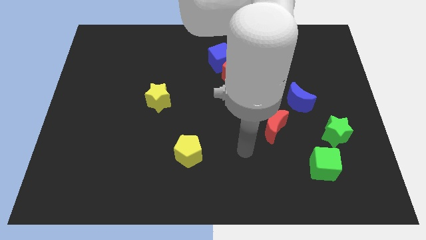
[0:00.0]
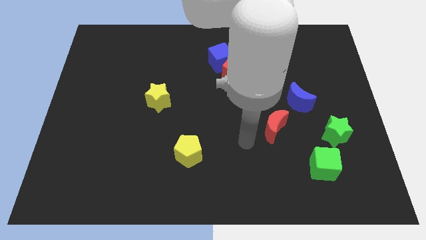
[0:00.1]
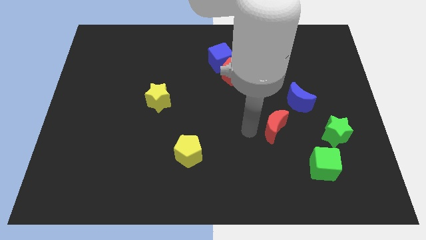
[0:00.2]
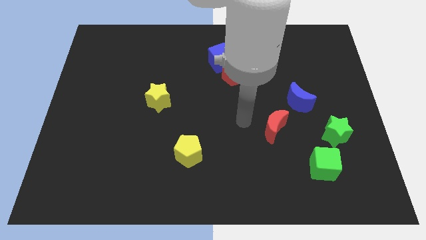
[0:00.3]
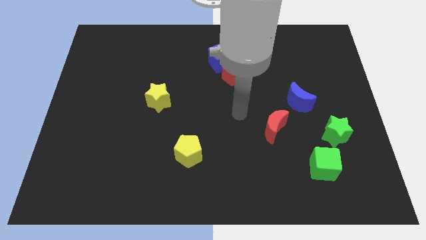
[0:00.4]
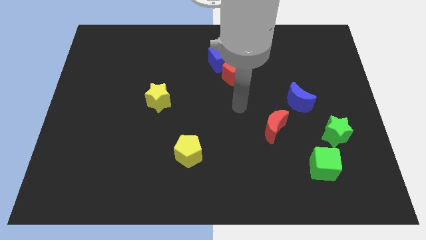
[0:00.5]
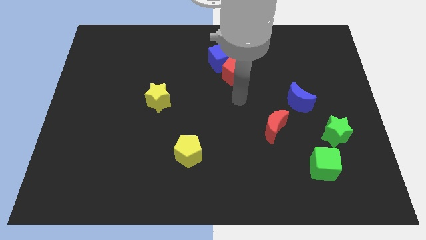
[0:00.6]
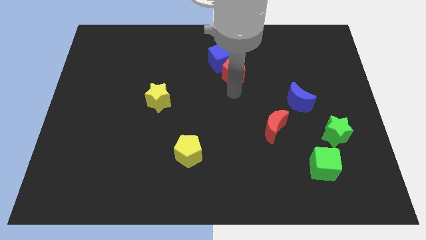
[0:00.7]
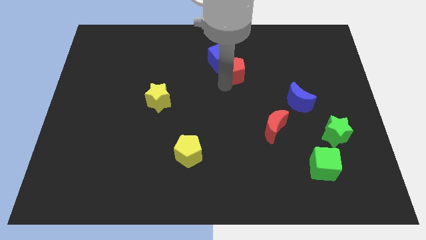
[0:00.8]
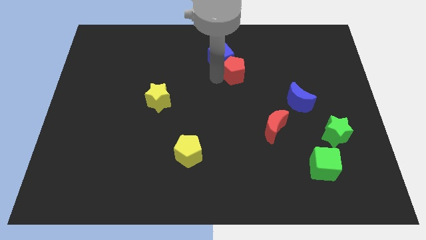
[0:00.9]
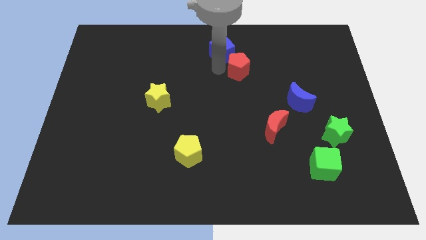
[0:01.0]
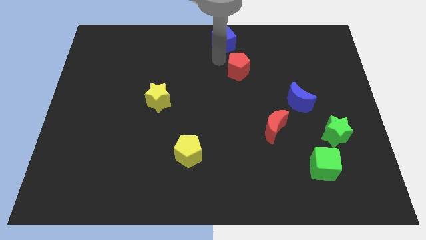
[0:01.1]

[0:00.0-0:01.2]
move the red pentagon away from the blue cube

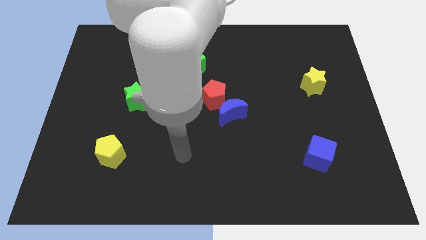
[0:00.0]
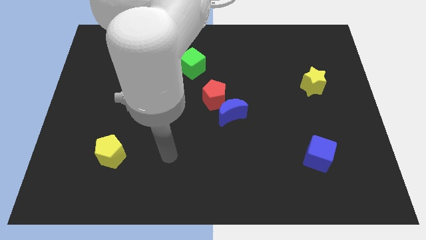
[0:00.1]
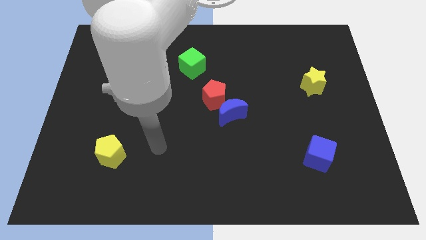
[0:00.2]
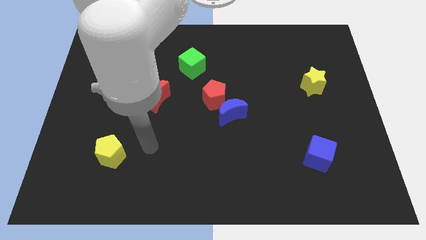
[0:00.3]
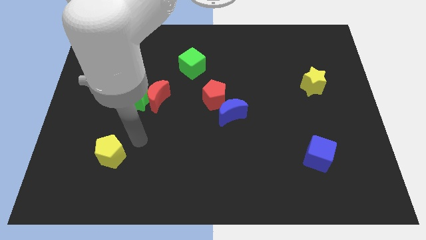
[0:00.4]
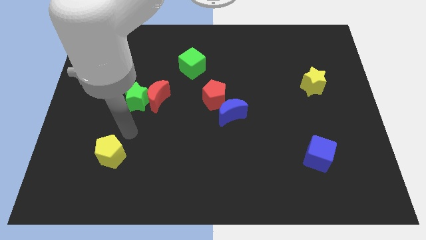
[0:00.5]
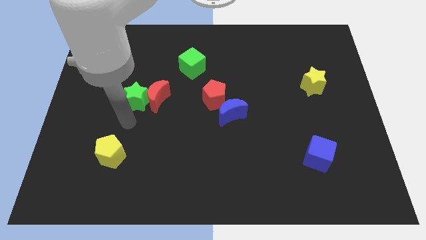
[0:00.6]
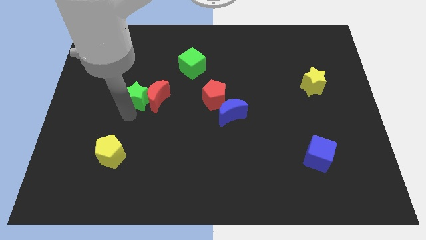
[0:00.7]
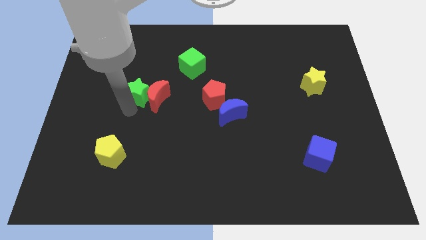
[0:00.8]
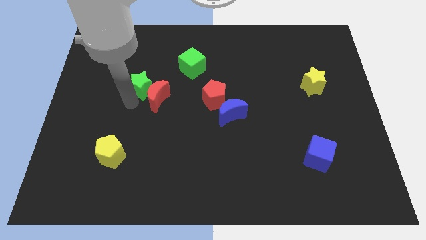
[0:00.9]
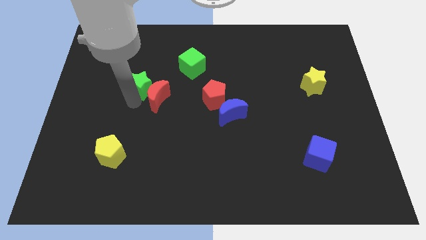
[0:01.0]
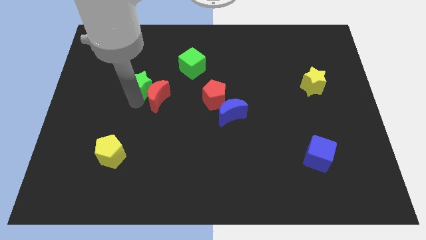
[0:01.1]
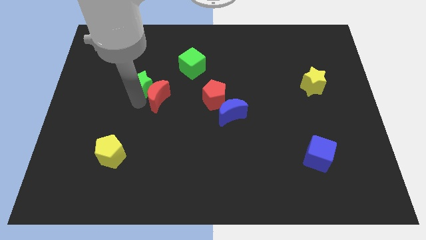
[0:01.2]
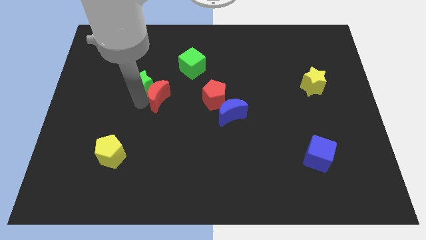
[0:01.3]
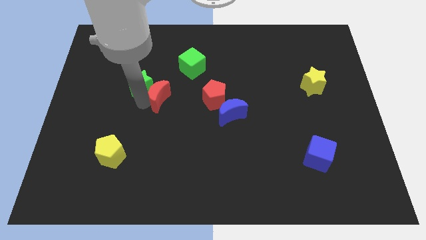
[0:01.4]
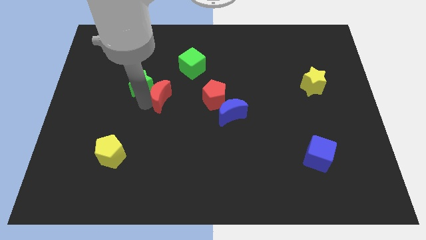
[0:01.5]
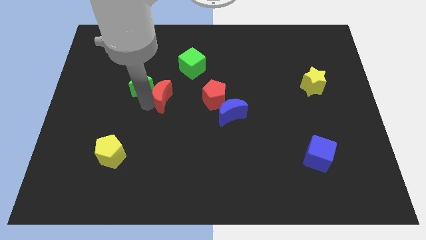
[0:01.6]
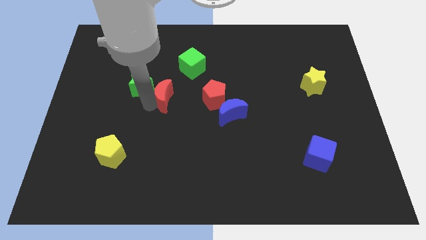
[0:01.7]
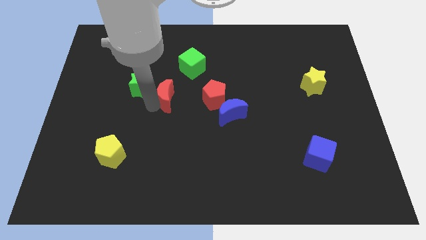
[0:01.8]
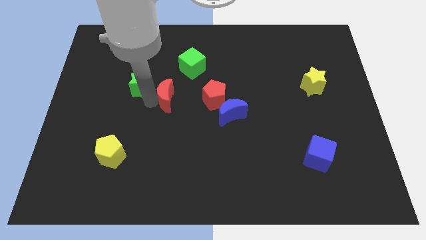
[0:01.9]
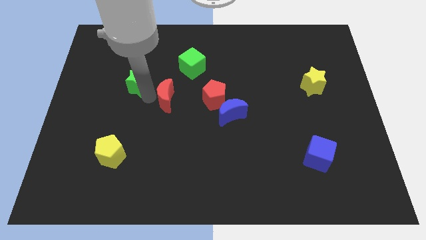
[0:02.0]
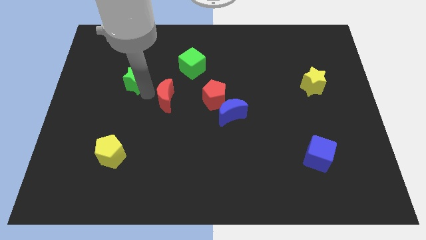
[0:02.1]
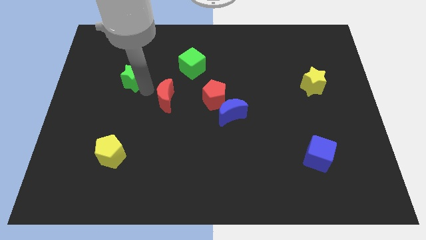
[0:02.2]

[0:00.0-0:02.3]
move the red moon away from the green star

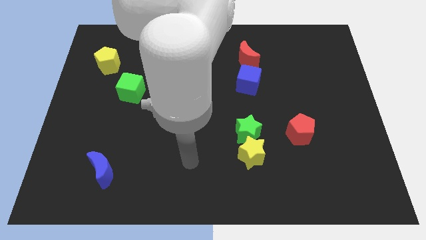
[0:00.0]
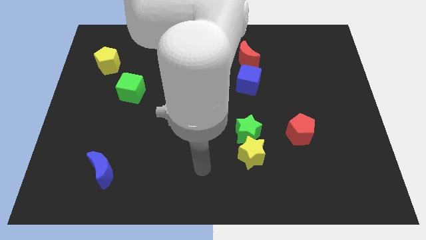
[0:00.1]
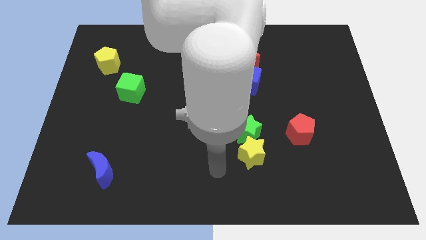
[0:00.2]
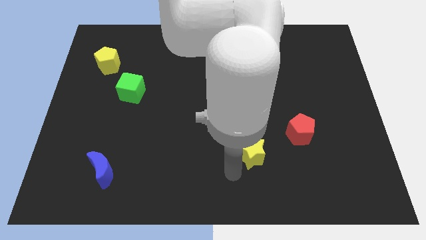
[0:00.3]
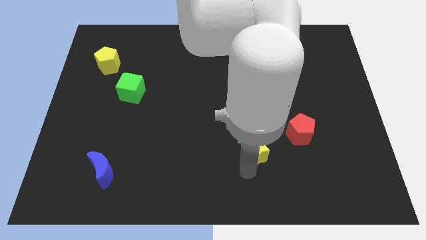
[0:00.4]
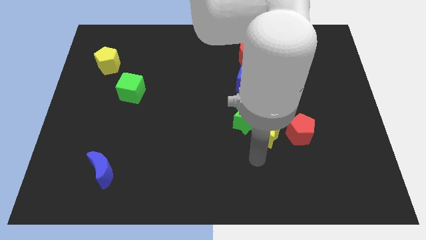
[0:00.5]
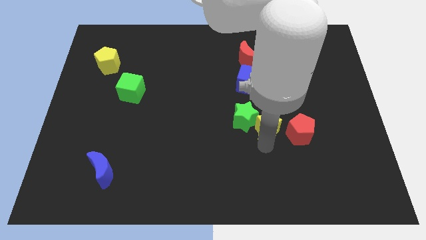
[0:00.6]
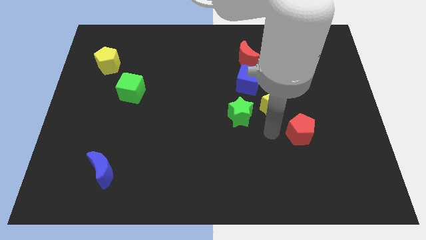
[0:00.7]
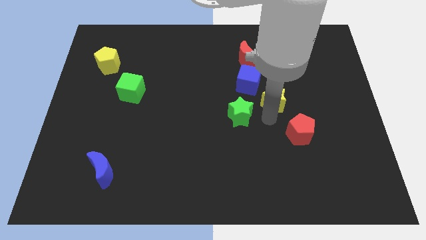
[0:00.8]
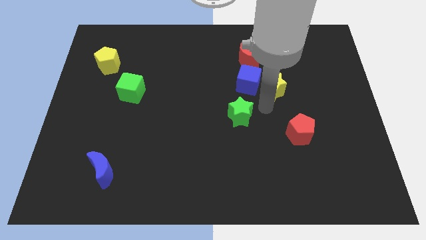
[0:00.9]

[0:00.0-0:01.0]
separate the green star from the yellow star

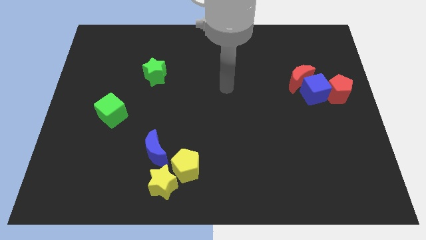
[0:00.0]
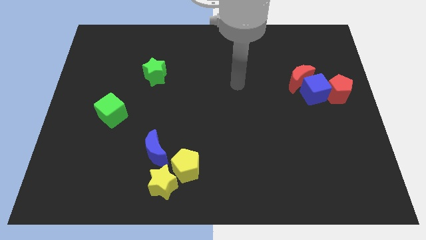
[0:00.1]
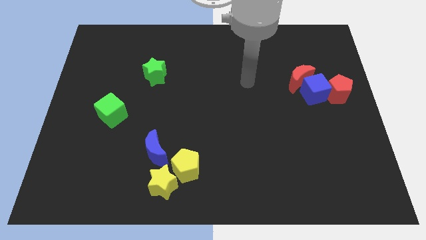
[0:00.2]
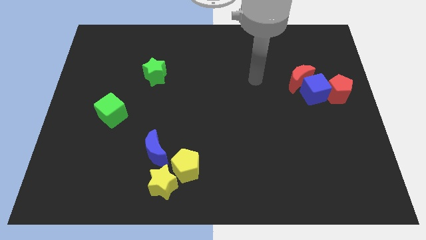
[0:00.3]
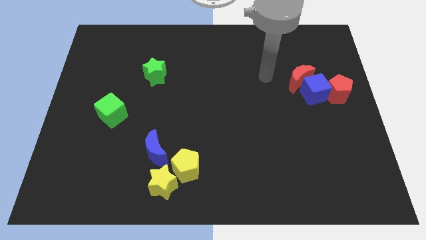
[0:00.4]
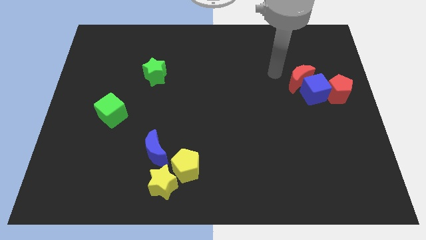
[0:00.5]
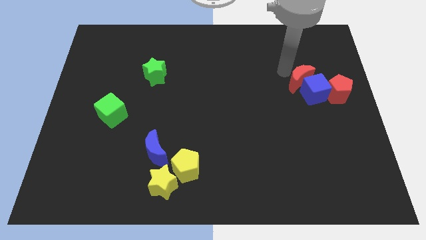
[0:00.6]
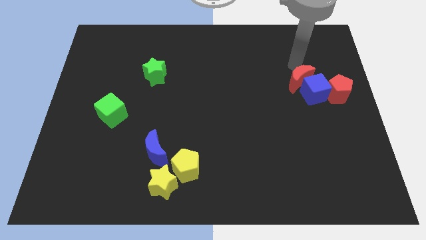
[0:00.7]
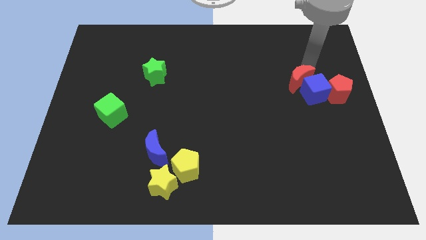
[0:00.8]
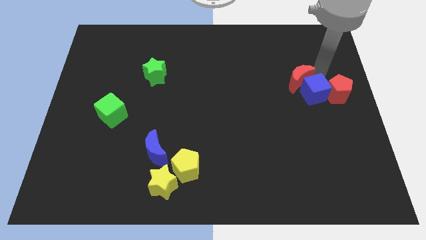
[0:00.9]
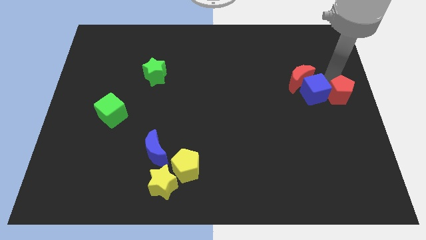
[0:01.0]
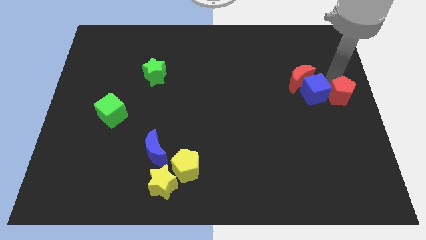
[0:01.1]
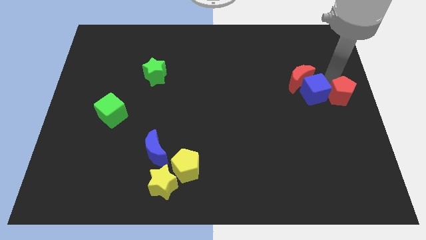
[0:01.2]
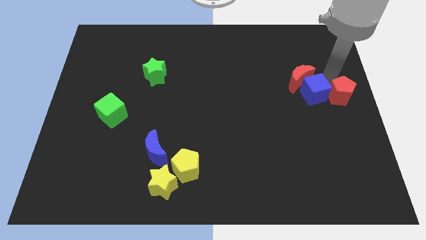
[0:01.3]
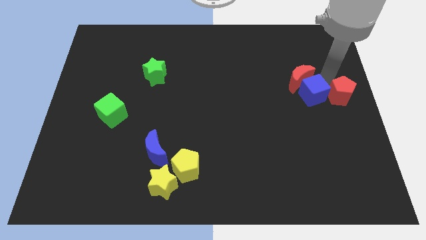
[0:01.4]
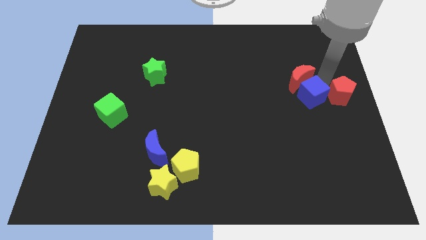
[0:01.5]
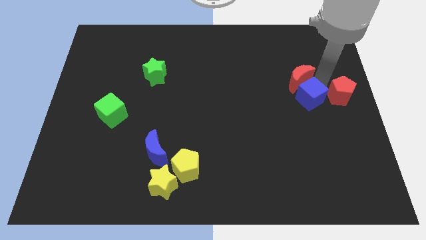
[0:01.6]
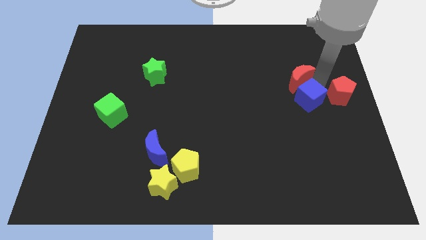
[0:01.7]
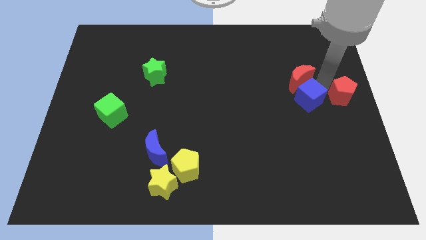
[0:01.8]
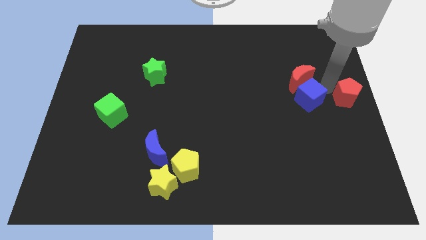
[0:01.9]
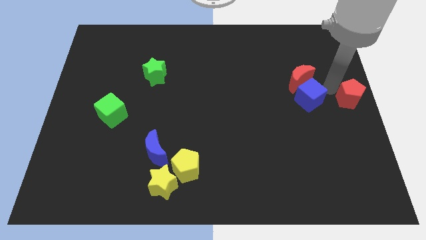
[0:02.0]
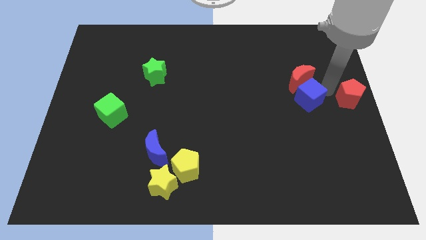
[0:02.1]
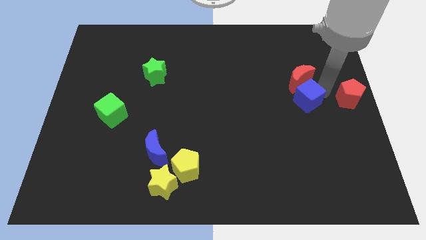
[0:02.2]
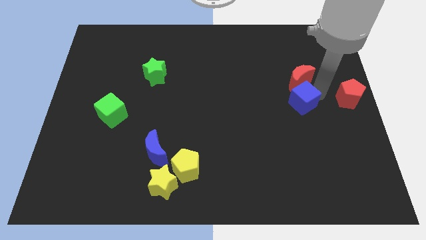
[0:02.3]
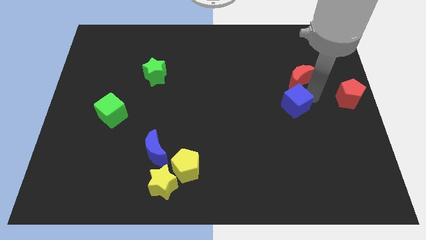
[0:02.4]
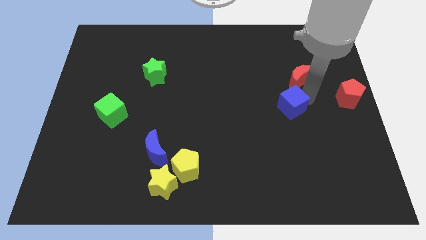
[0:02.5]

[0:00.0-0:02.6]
move the blue cube away from the red moon and red pentagon

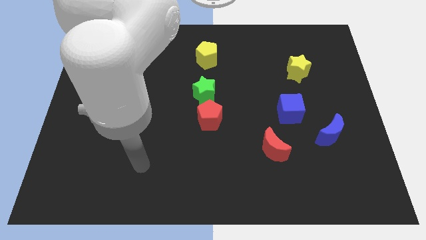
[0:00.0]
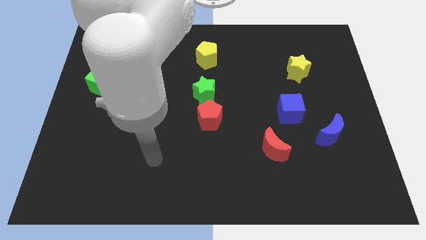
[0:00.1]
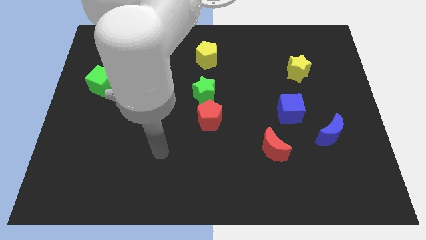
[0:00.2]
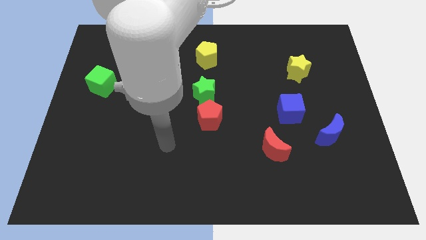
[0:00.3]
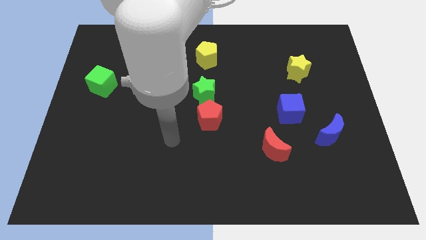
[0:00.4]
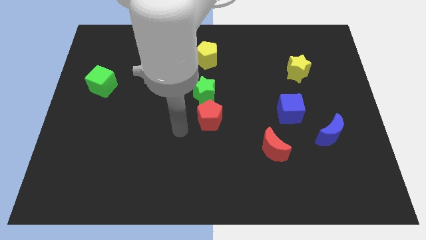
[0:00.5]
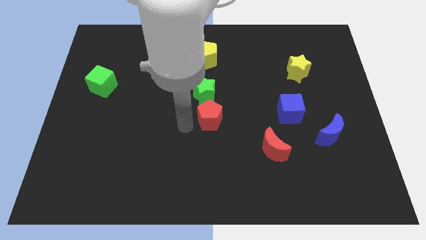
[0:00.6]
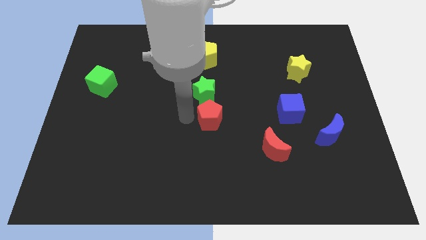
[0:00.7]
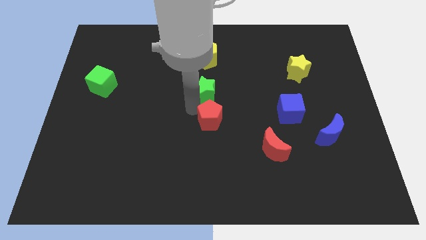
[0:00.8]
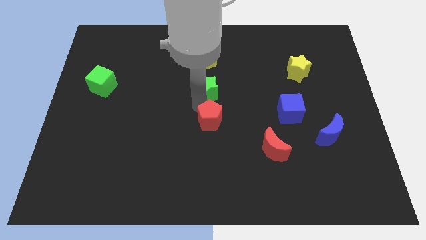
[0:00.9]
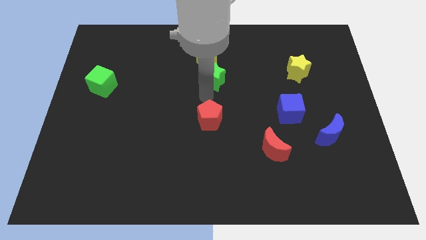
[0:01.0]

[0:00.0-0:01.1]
move the red pentagon away from the green star

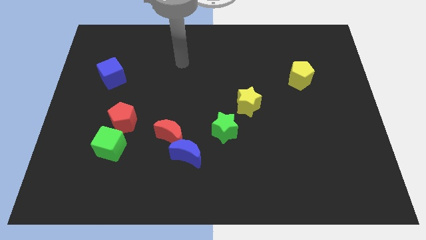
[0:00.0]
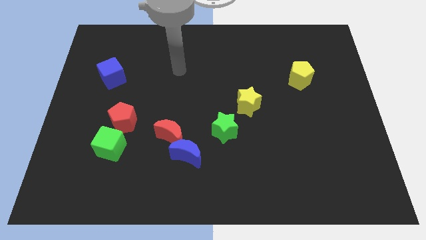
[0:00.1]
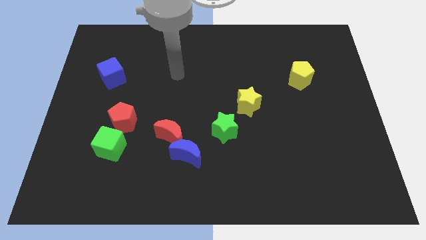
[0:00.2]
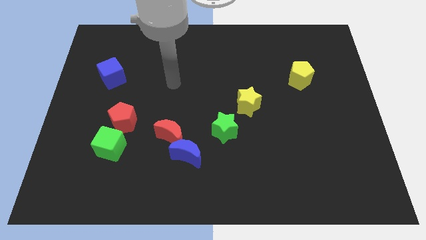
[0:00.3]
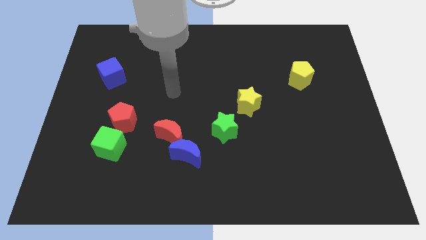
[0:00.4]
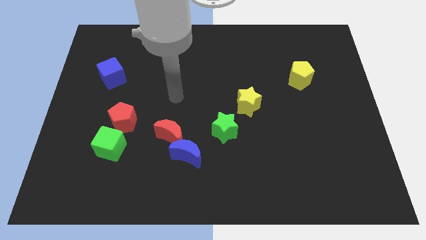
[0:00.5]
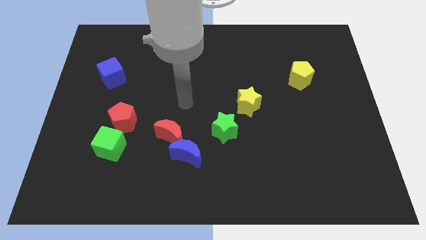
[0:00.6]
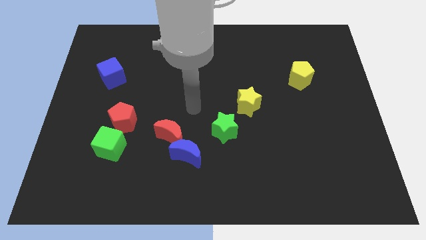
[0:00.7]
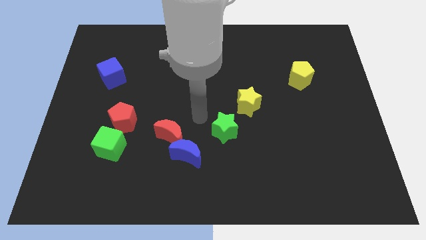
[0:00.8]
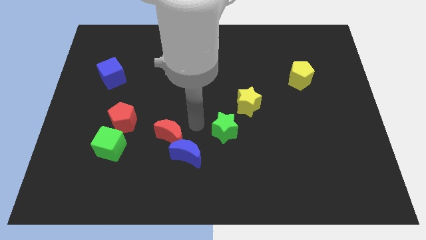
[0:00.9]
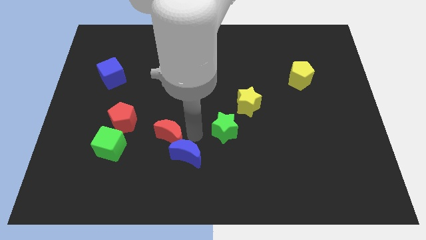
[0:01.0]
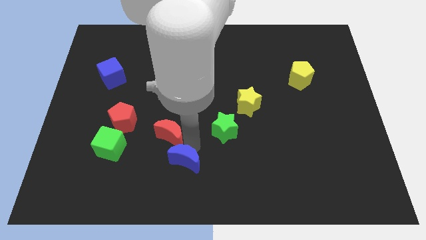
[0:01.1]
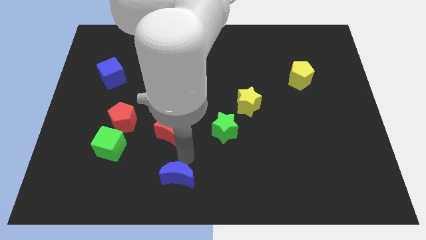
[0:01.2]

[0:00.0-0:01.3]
separate the red moon from the blue moon
